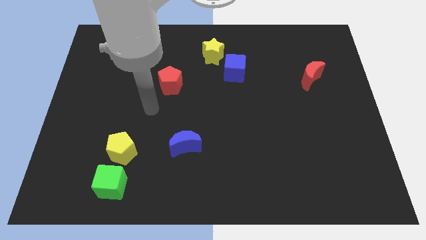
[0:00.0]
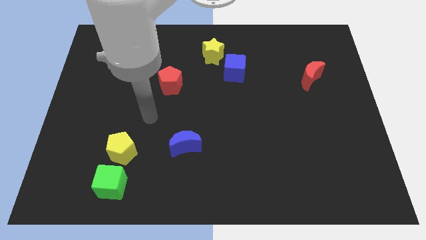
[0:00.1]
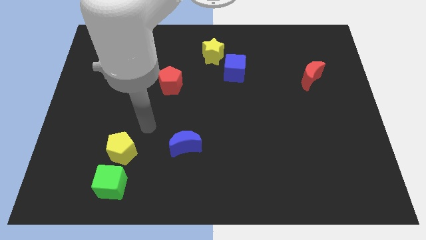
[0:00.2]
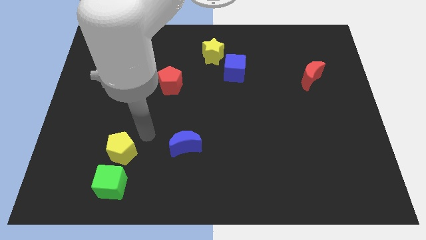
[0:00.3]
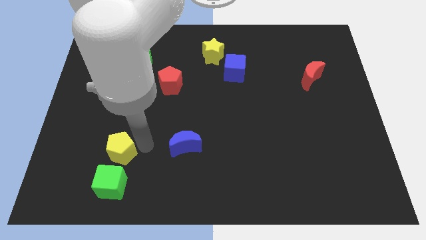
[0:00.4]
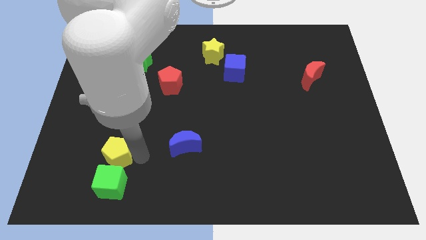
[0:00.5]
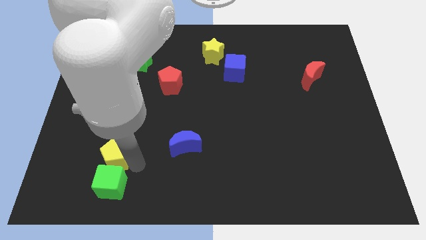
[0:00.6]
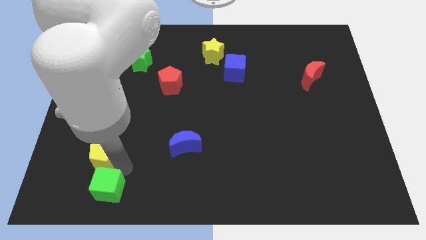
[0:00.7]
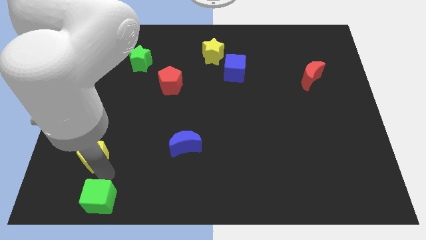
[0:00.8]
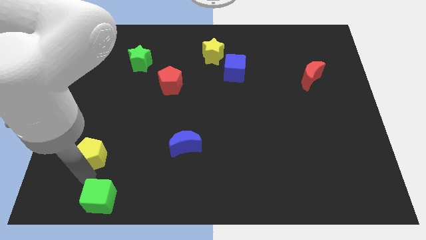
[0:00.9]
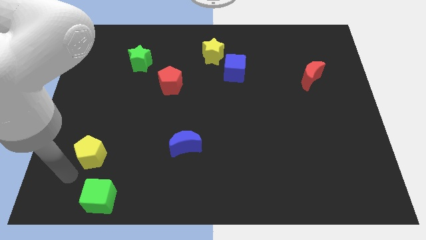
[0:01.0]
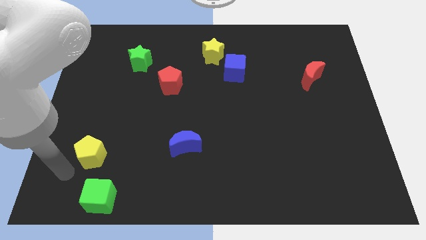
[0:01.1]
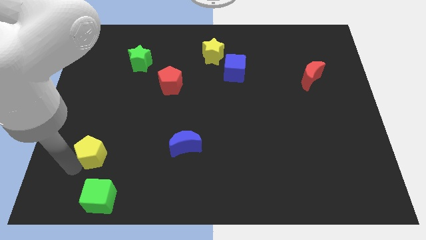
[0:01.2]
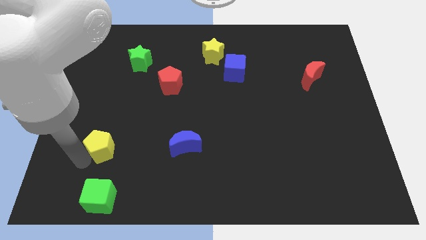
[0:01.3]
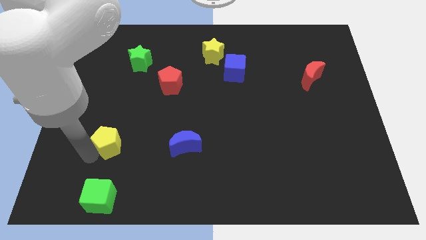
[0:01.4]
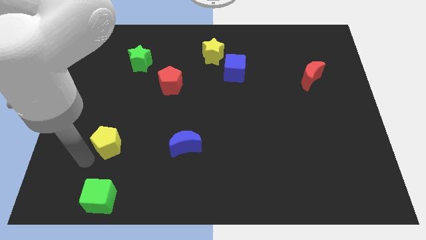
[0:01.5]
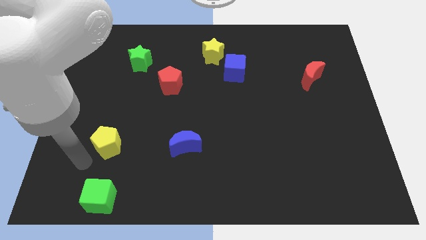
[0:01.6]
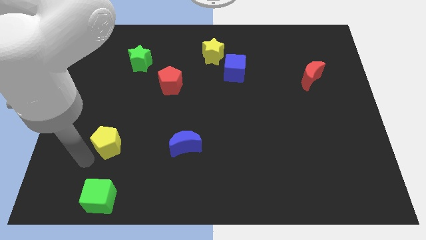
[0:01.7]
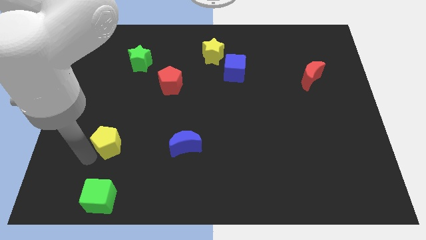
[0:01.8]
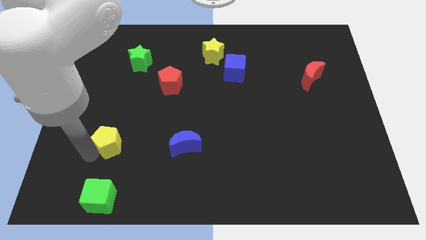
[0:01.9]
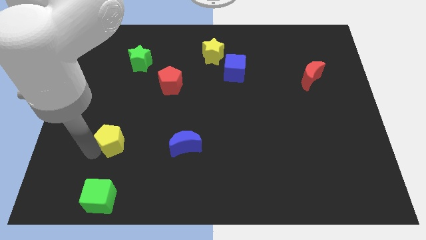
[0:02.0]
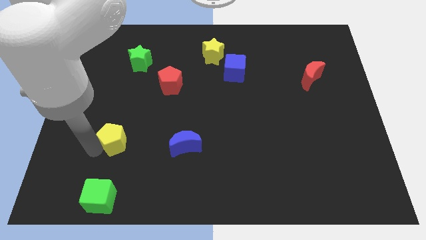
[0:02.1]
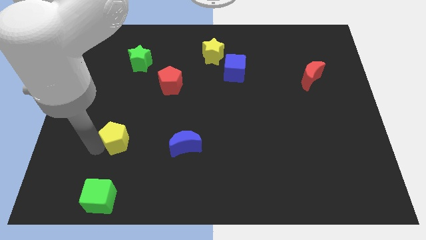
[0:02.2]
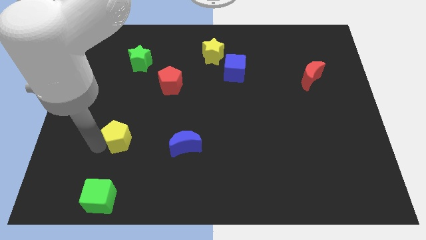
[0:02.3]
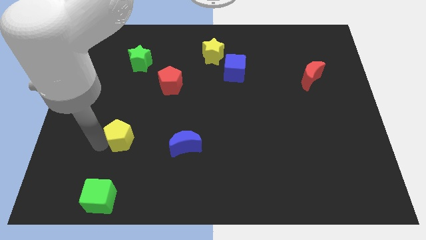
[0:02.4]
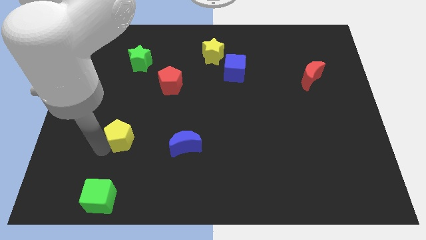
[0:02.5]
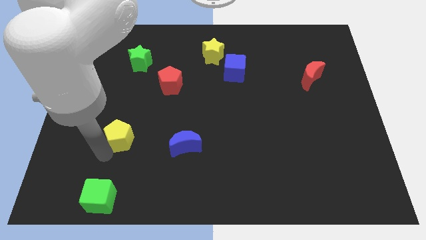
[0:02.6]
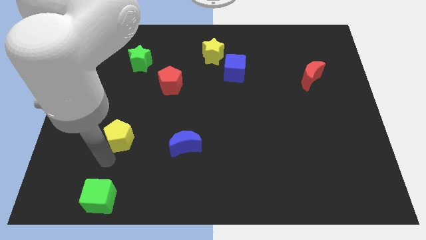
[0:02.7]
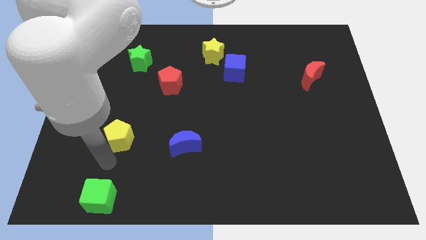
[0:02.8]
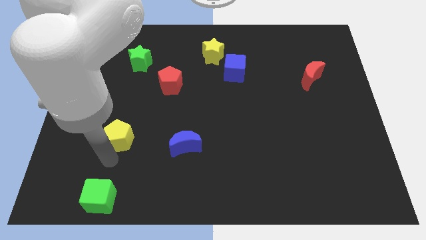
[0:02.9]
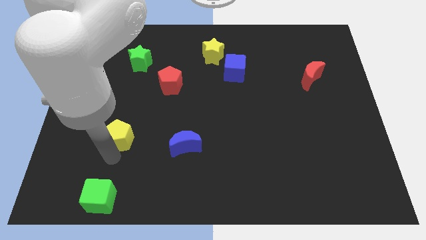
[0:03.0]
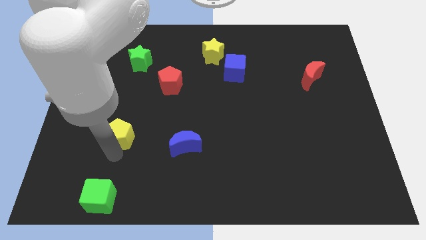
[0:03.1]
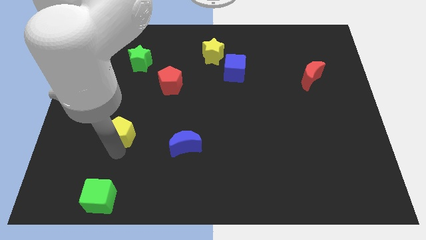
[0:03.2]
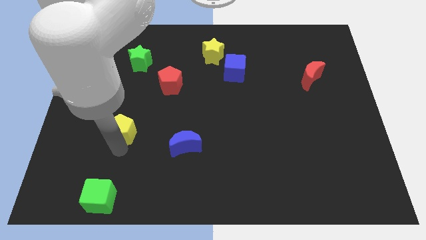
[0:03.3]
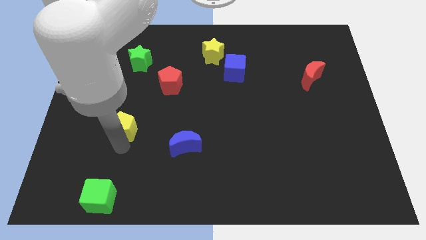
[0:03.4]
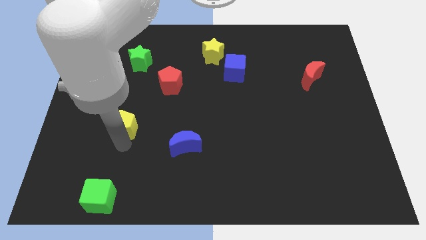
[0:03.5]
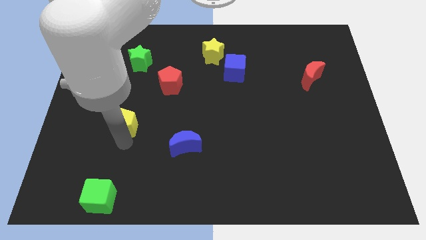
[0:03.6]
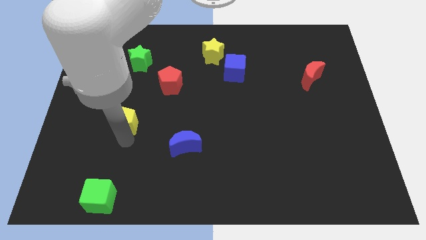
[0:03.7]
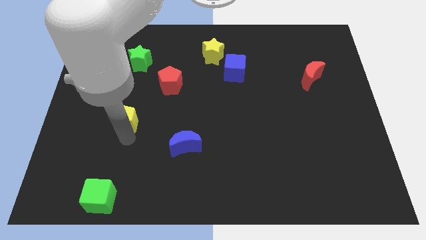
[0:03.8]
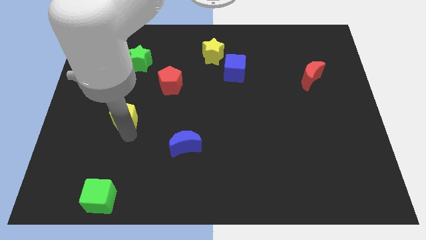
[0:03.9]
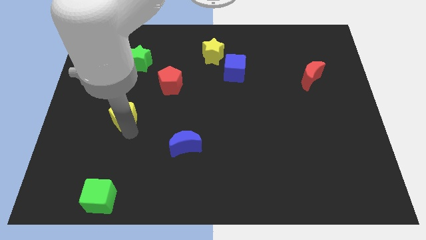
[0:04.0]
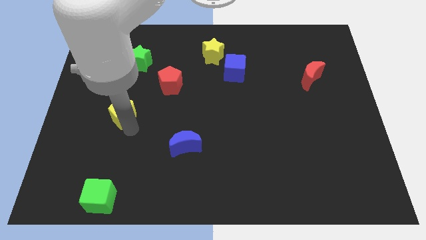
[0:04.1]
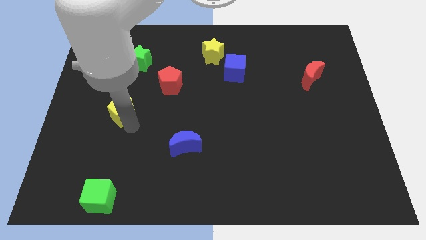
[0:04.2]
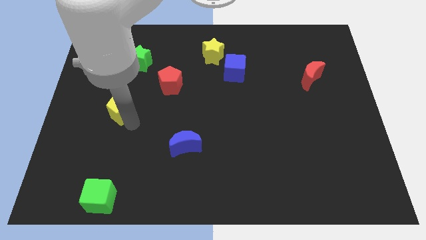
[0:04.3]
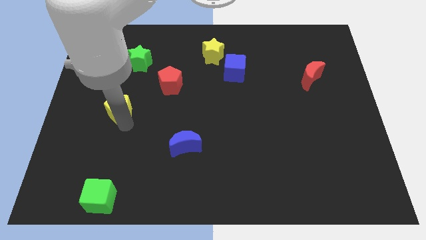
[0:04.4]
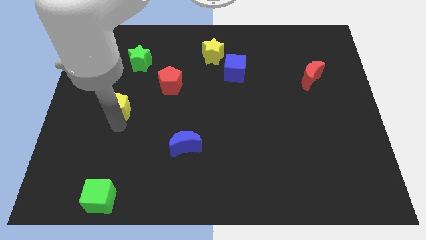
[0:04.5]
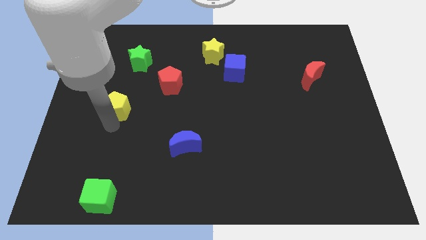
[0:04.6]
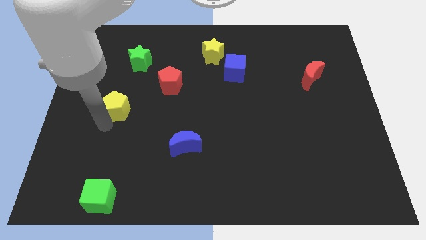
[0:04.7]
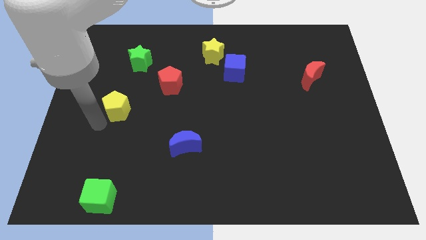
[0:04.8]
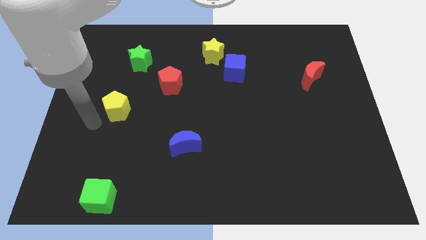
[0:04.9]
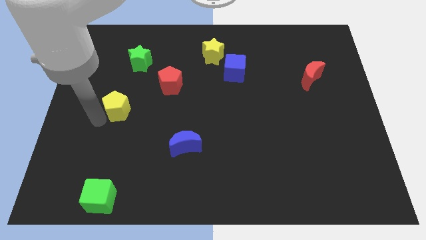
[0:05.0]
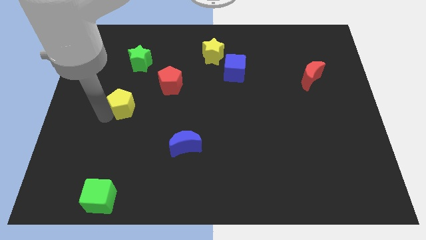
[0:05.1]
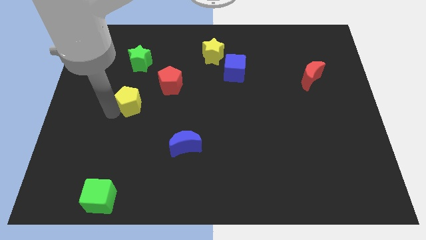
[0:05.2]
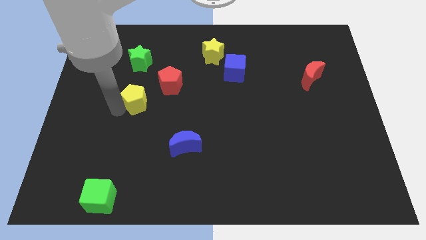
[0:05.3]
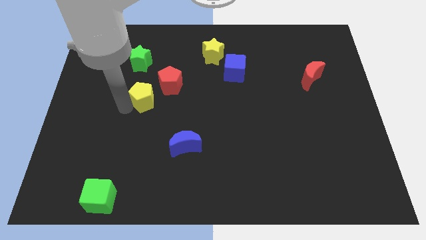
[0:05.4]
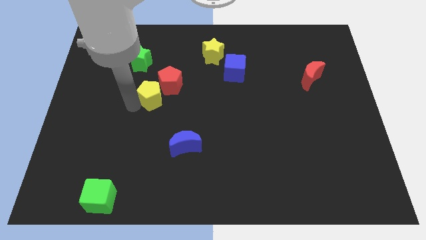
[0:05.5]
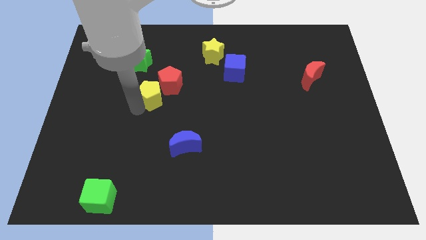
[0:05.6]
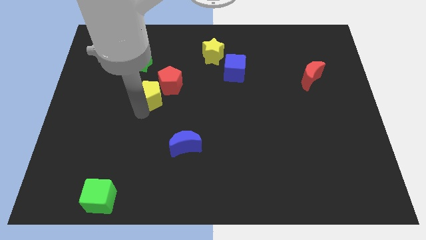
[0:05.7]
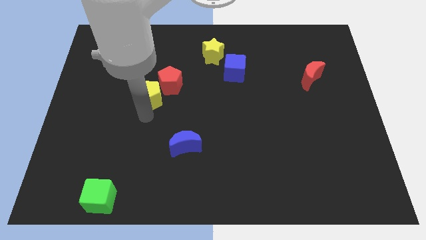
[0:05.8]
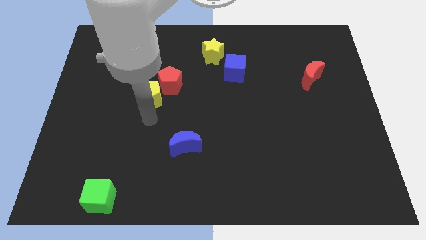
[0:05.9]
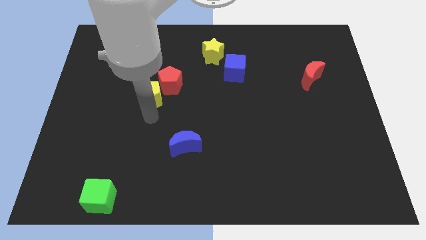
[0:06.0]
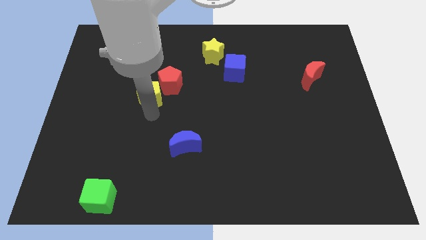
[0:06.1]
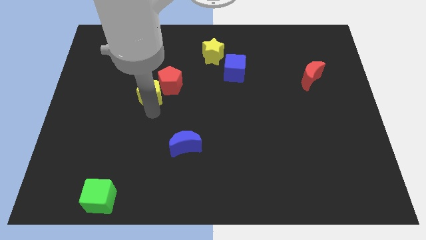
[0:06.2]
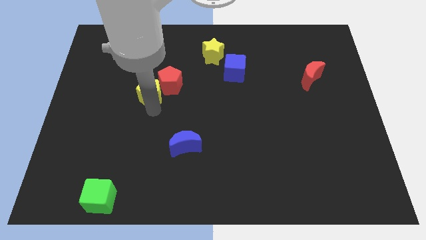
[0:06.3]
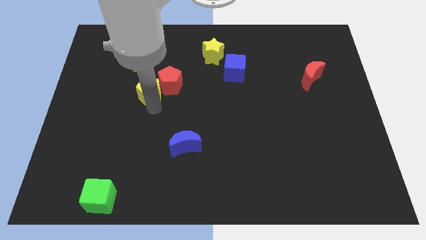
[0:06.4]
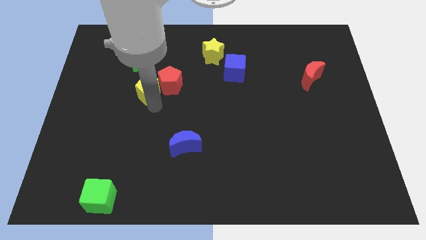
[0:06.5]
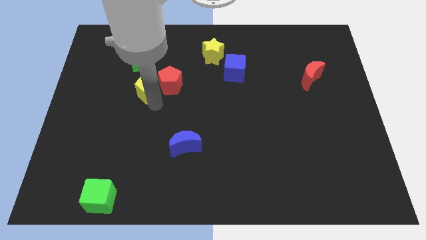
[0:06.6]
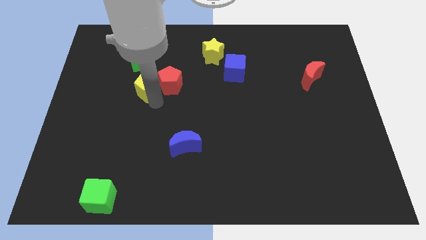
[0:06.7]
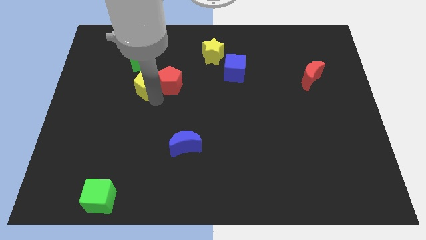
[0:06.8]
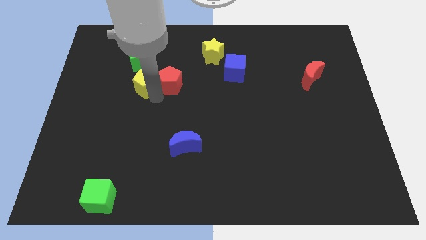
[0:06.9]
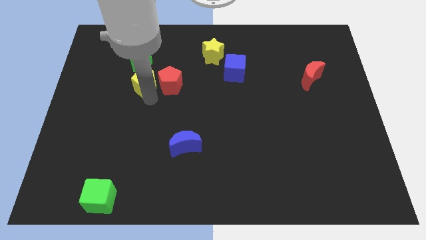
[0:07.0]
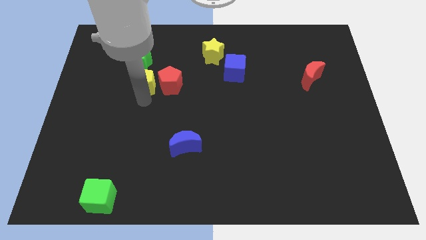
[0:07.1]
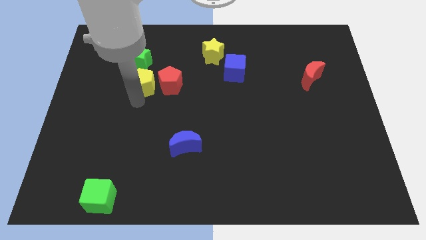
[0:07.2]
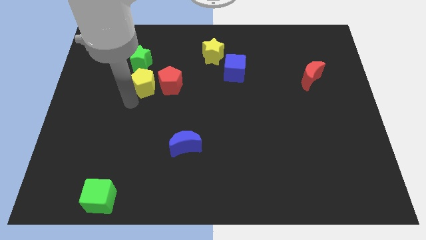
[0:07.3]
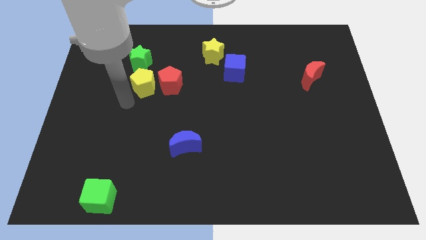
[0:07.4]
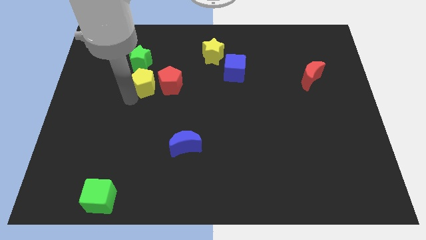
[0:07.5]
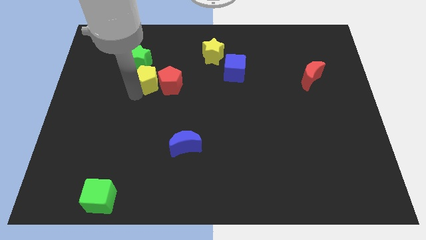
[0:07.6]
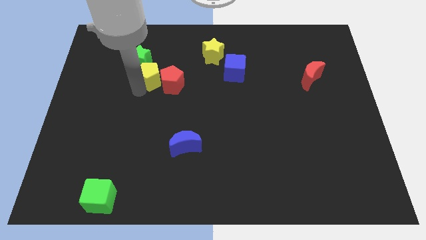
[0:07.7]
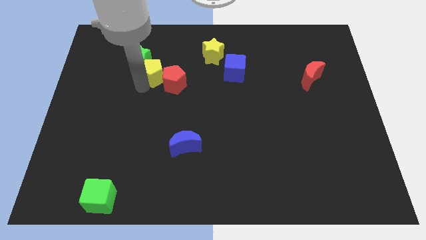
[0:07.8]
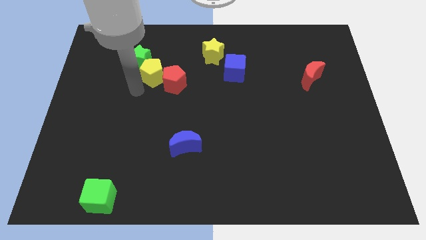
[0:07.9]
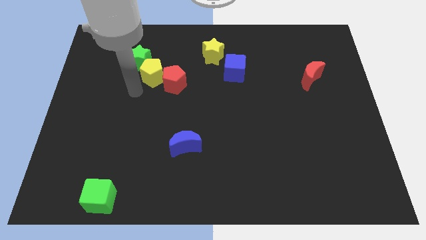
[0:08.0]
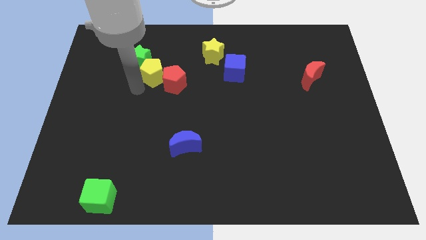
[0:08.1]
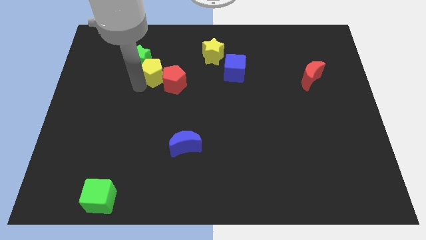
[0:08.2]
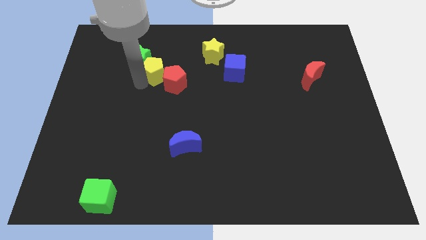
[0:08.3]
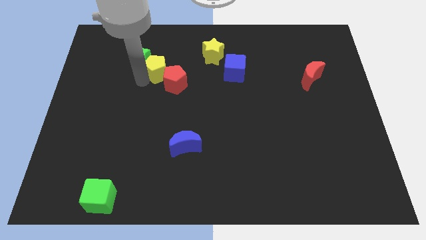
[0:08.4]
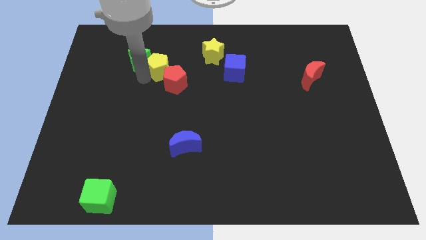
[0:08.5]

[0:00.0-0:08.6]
slide the yellow pentagon to the top of the red pentagon
